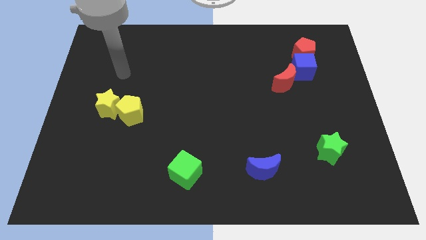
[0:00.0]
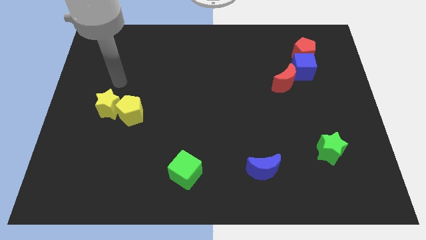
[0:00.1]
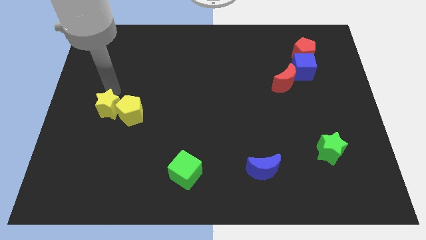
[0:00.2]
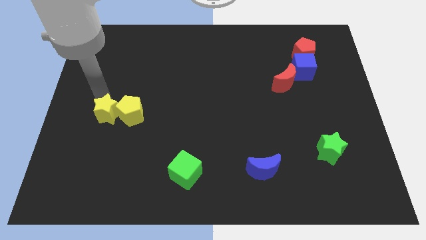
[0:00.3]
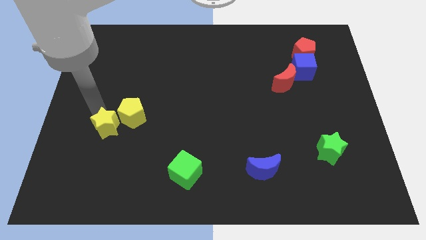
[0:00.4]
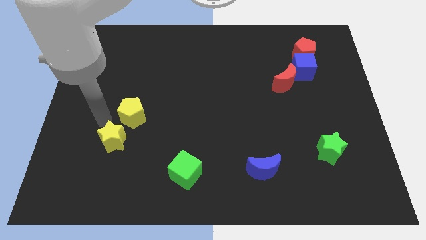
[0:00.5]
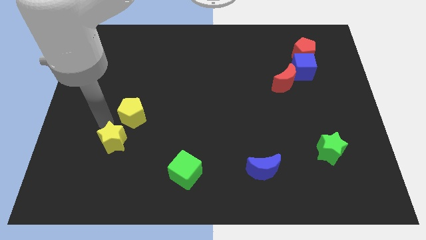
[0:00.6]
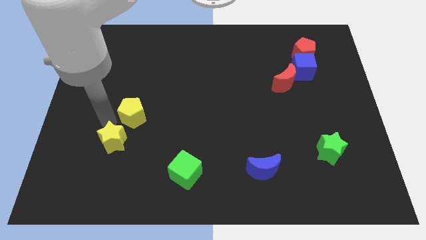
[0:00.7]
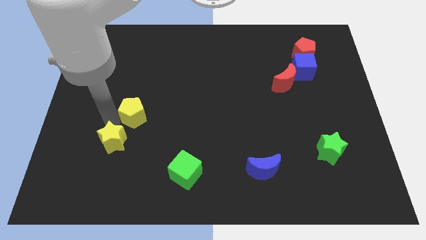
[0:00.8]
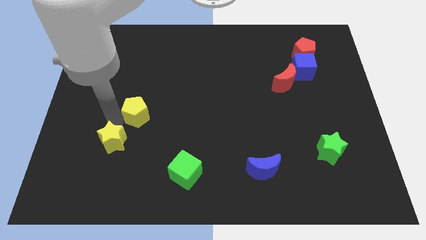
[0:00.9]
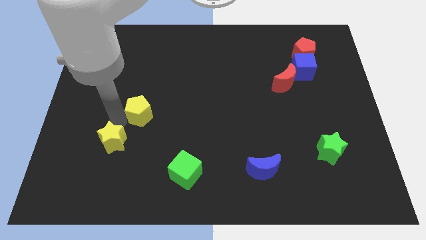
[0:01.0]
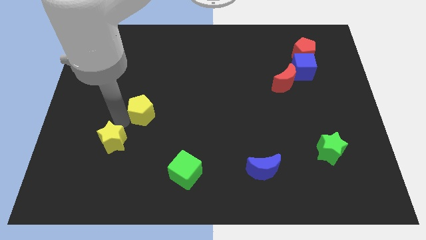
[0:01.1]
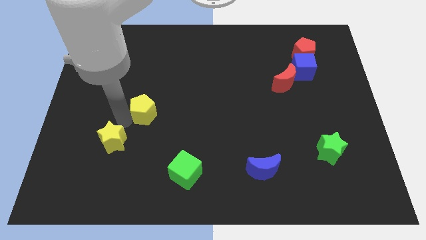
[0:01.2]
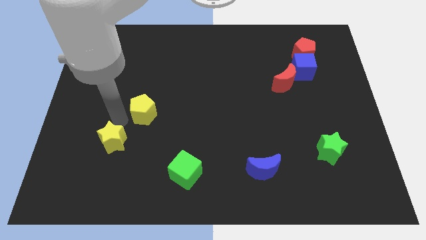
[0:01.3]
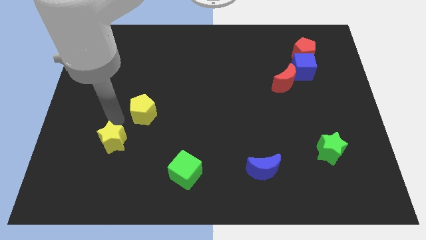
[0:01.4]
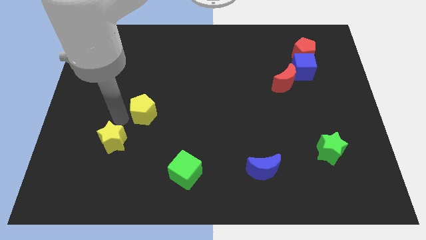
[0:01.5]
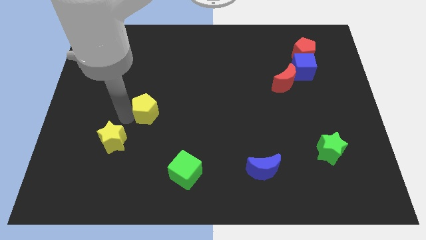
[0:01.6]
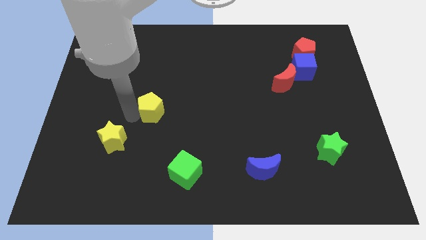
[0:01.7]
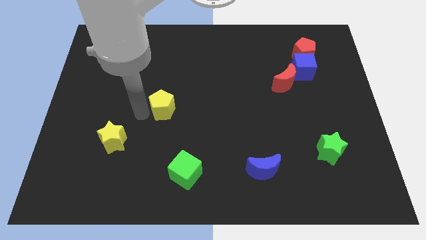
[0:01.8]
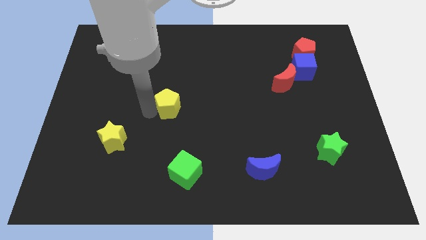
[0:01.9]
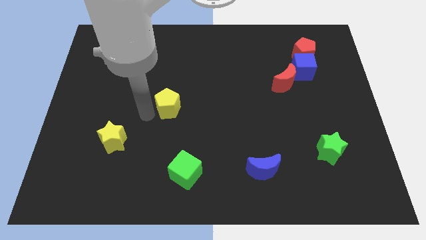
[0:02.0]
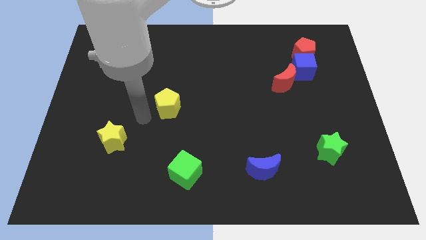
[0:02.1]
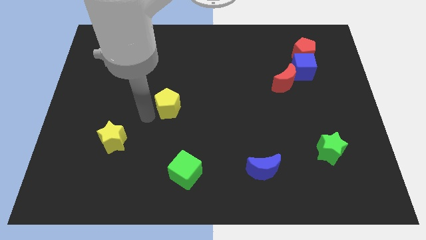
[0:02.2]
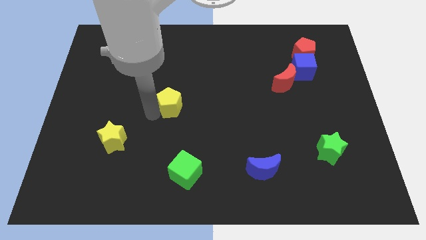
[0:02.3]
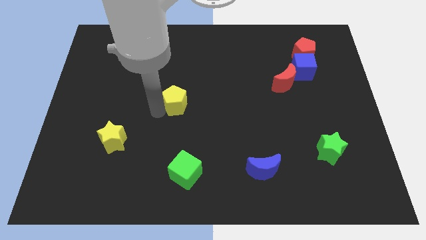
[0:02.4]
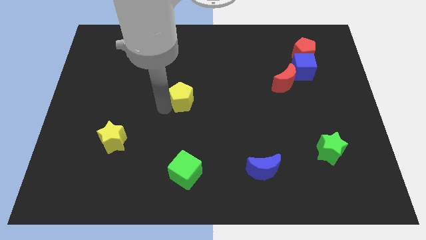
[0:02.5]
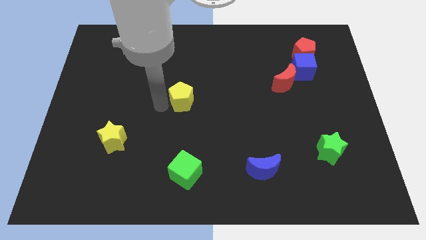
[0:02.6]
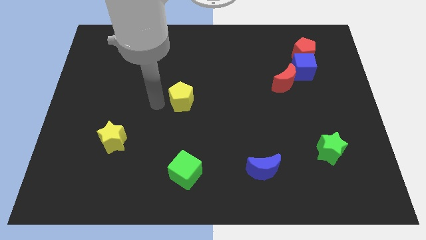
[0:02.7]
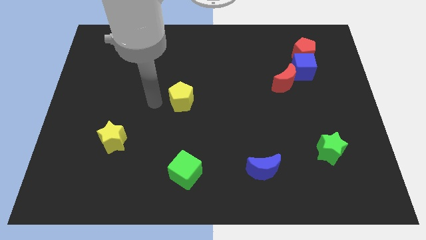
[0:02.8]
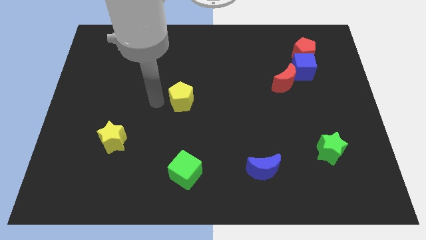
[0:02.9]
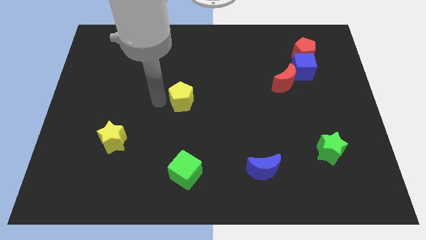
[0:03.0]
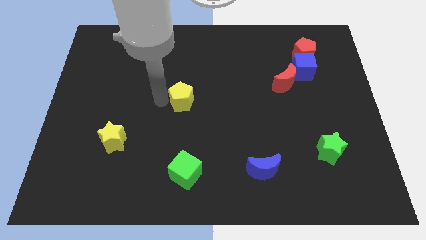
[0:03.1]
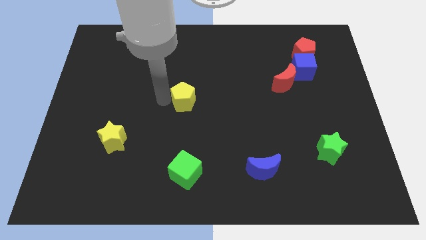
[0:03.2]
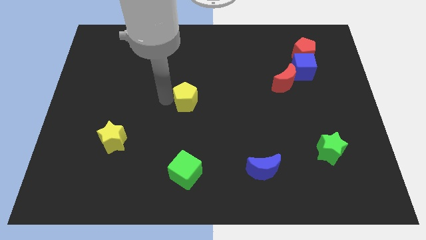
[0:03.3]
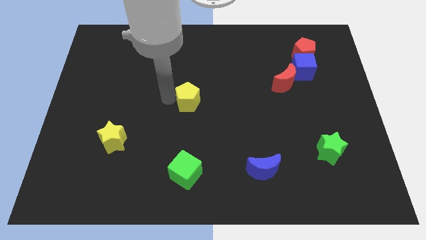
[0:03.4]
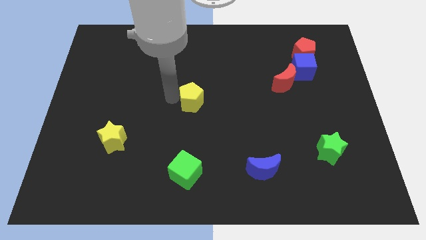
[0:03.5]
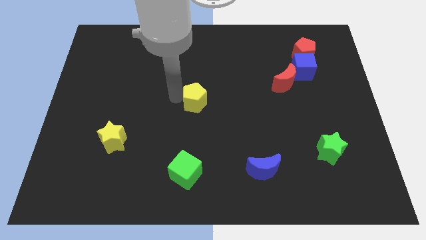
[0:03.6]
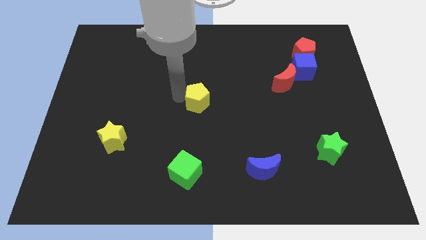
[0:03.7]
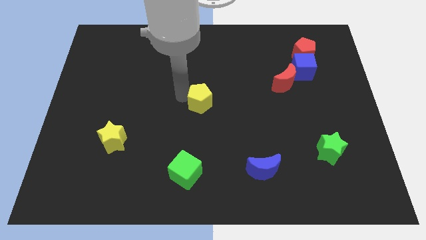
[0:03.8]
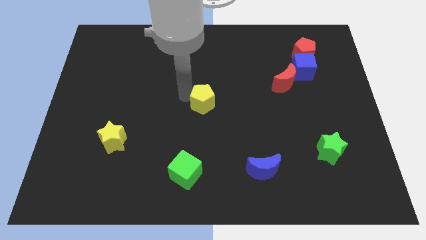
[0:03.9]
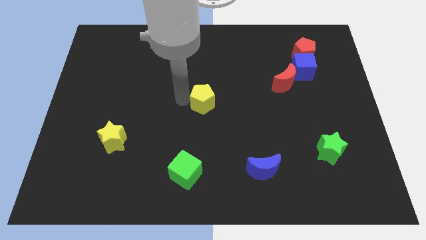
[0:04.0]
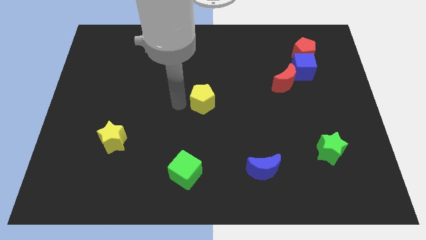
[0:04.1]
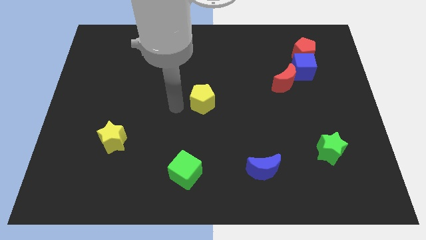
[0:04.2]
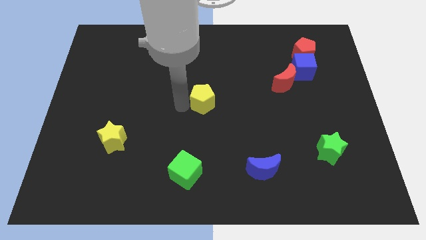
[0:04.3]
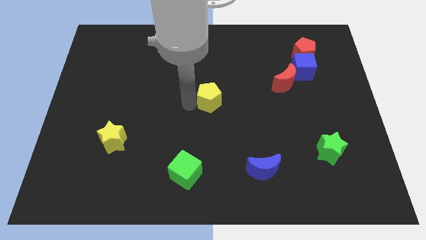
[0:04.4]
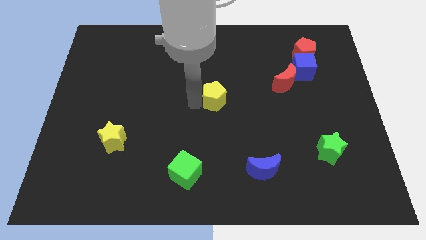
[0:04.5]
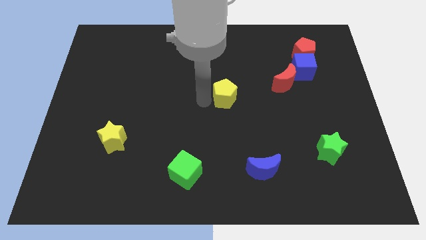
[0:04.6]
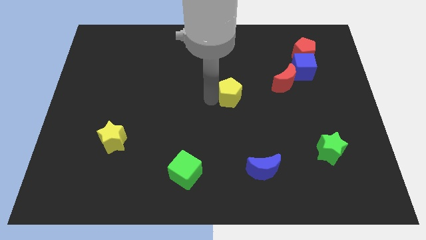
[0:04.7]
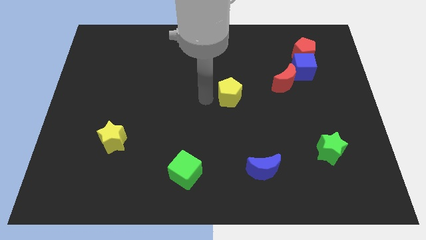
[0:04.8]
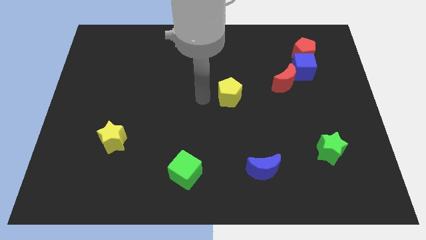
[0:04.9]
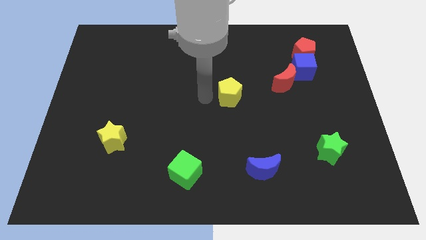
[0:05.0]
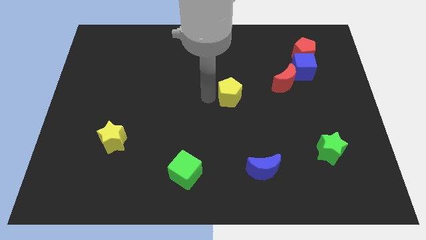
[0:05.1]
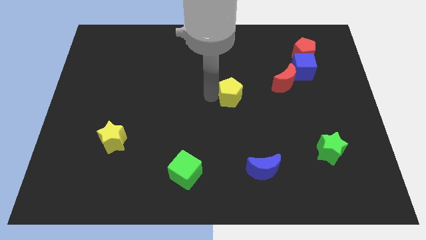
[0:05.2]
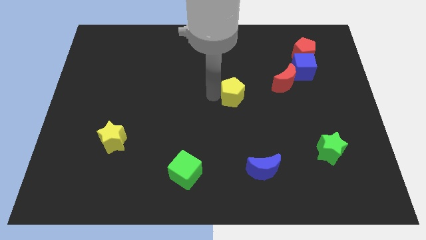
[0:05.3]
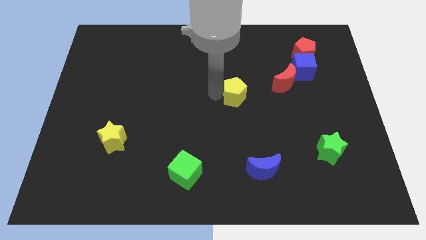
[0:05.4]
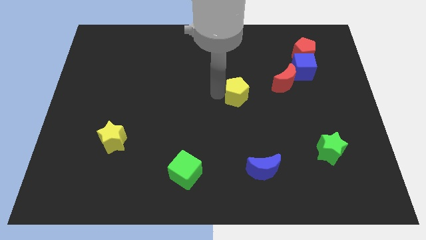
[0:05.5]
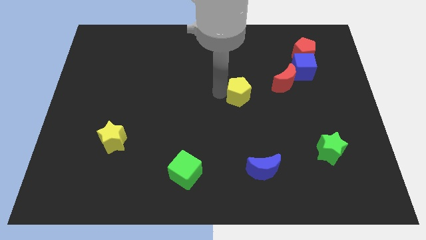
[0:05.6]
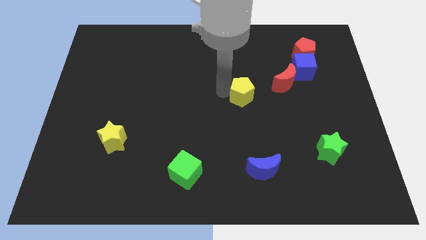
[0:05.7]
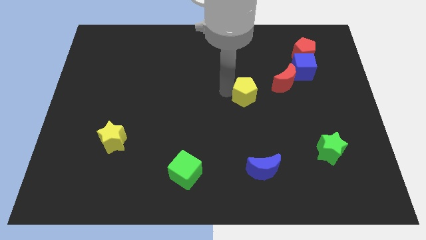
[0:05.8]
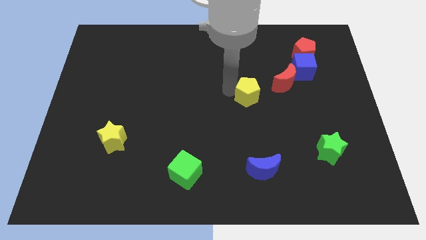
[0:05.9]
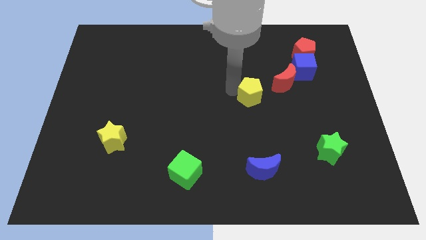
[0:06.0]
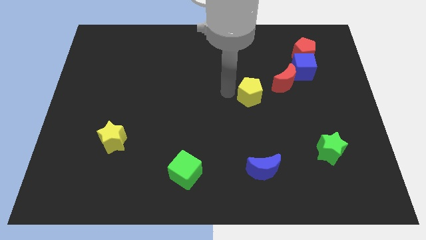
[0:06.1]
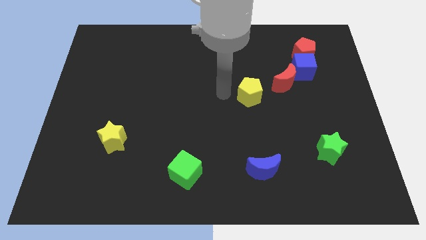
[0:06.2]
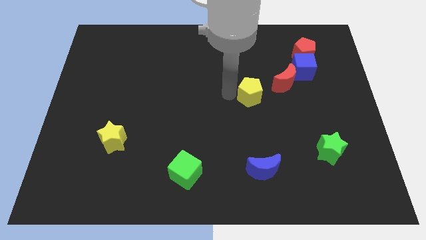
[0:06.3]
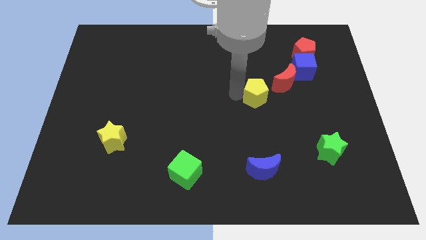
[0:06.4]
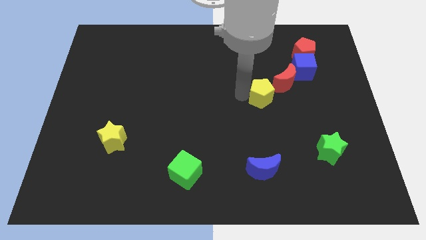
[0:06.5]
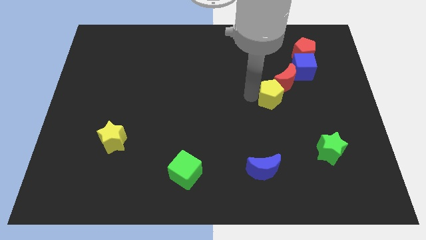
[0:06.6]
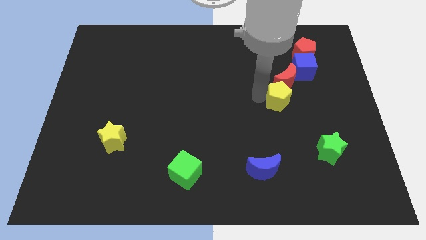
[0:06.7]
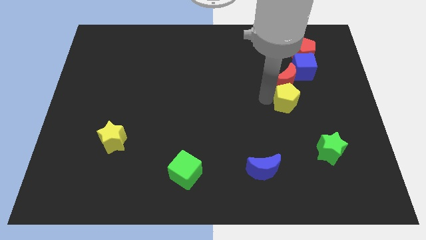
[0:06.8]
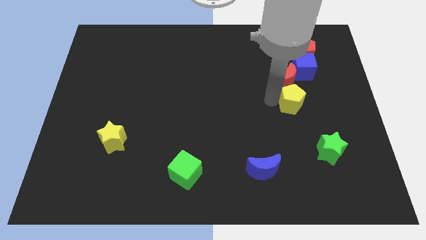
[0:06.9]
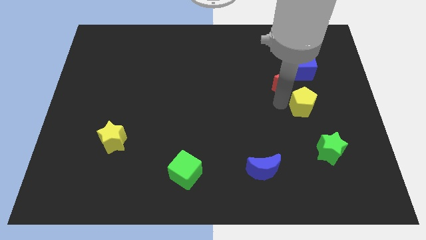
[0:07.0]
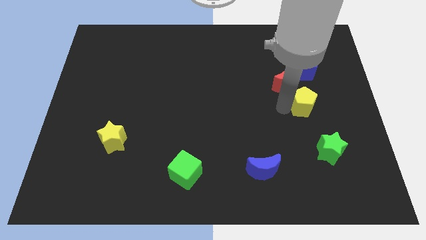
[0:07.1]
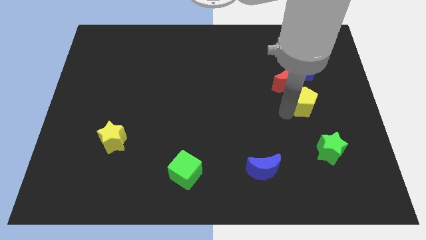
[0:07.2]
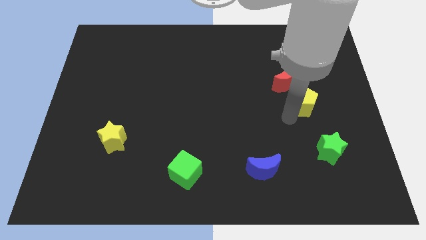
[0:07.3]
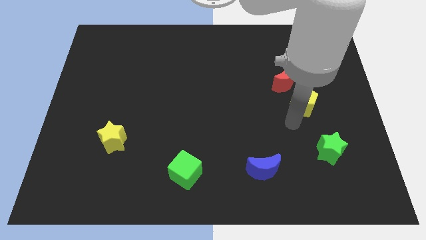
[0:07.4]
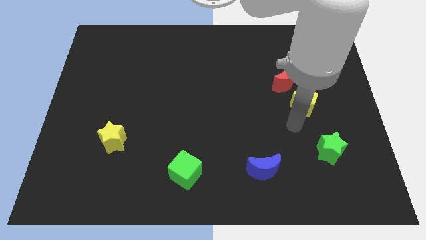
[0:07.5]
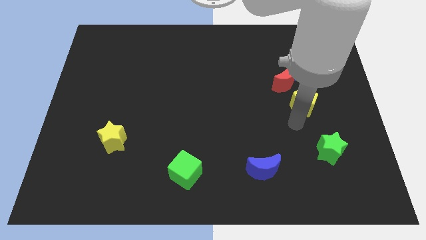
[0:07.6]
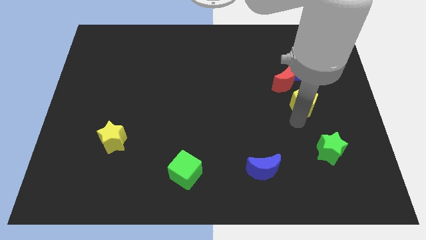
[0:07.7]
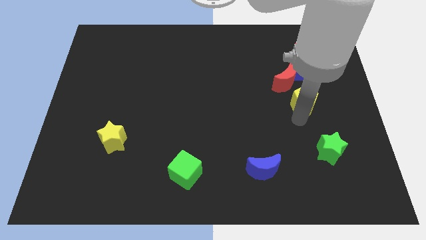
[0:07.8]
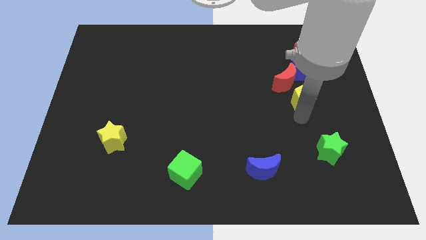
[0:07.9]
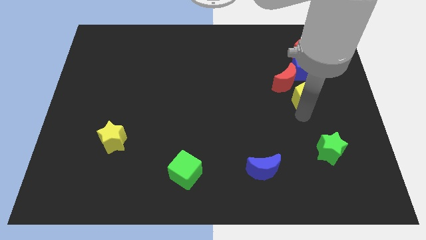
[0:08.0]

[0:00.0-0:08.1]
move the yellow pentagon to the bottom side of the red pentagon
